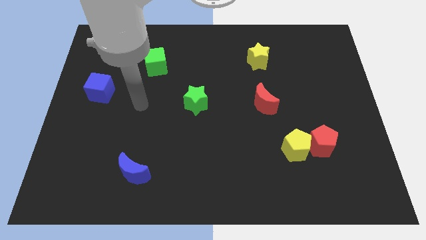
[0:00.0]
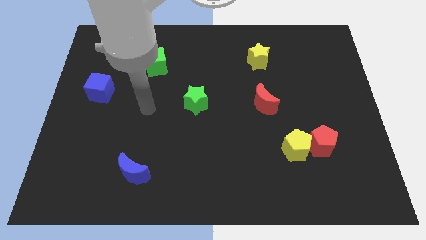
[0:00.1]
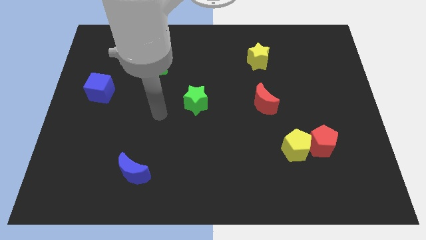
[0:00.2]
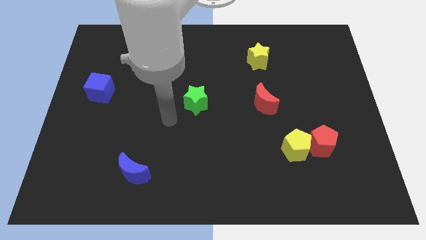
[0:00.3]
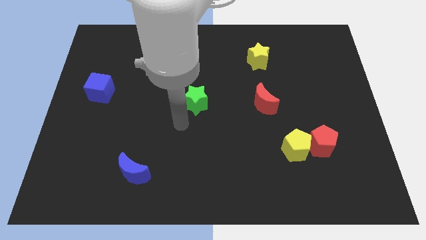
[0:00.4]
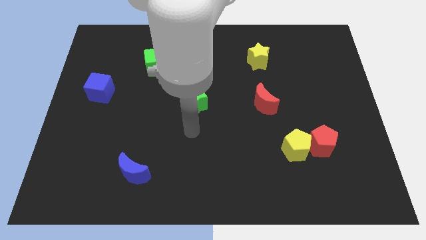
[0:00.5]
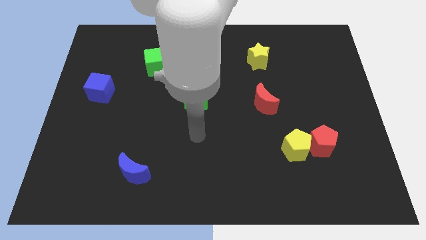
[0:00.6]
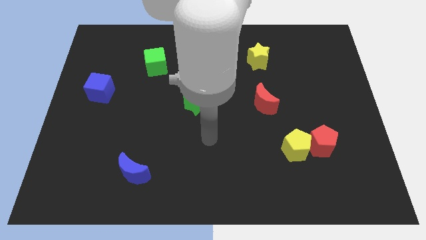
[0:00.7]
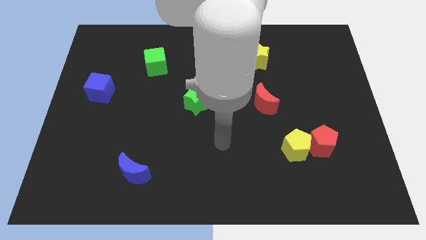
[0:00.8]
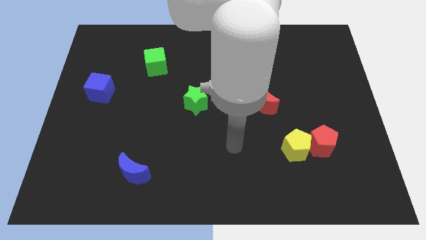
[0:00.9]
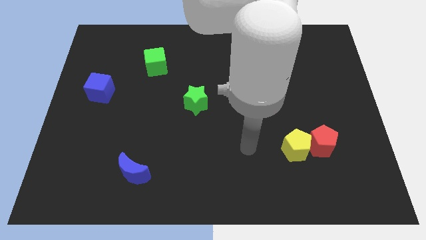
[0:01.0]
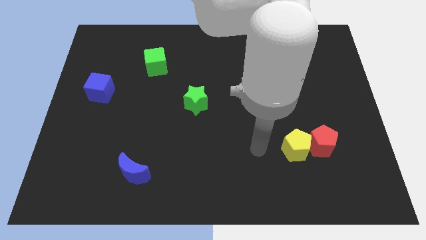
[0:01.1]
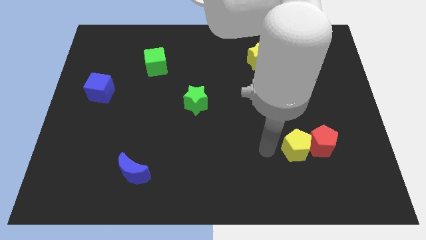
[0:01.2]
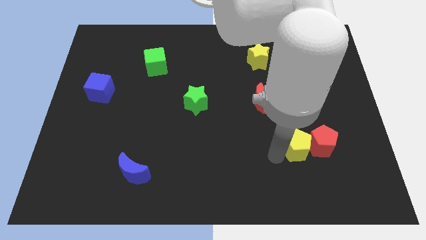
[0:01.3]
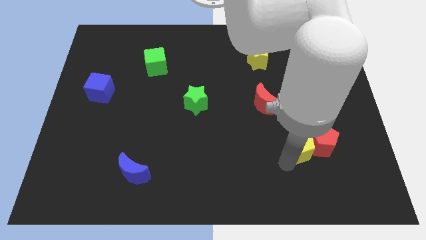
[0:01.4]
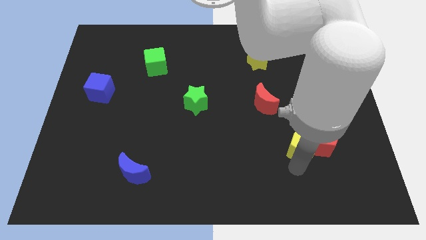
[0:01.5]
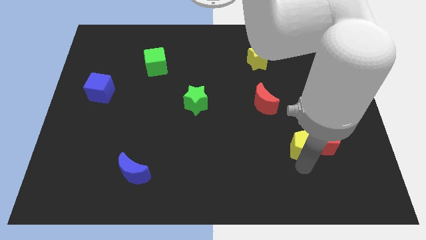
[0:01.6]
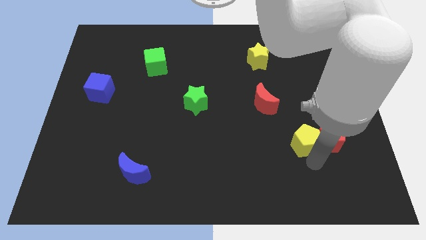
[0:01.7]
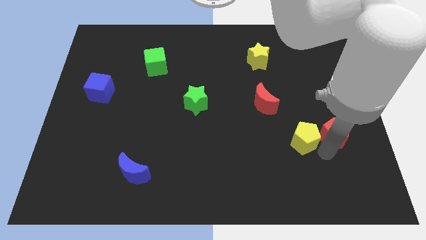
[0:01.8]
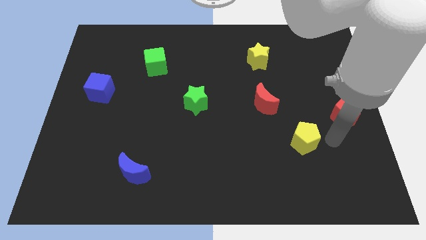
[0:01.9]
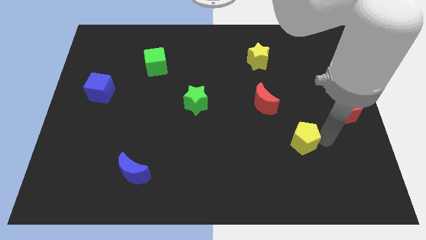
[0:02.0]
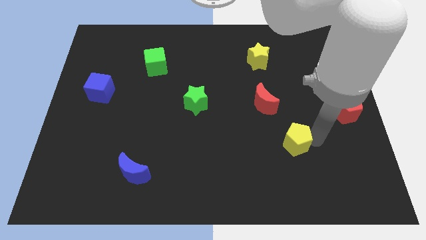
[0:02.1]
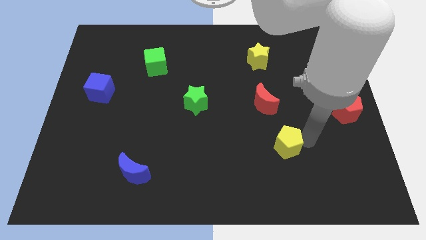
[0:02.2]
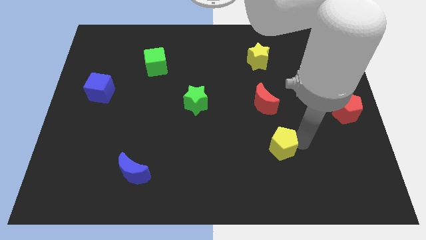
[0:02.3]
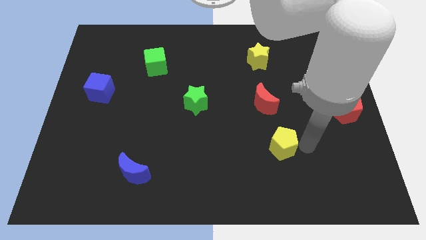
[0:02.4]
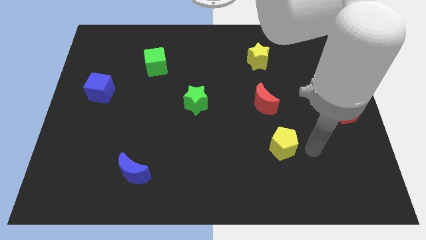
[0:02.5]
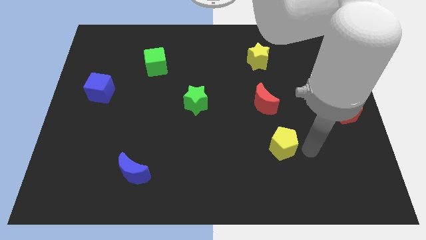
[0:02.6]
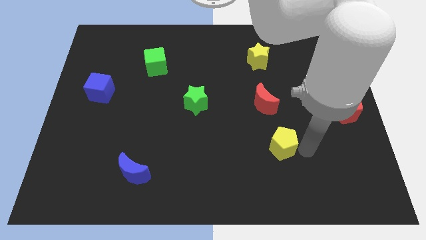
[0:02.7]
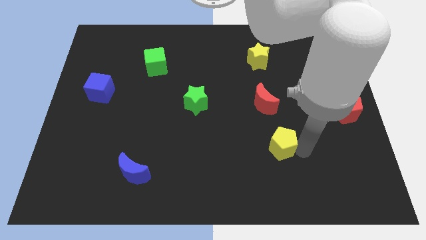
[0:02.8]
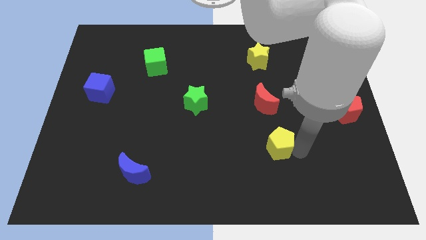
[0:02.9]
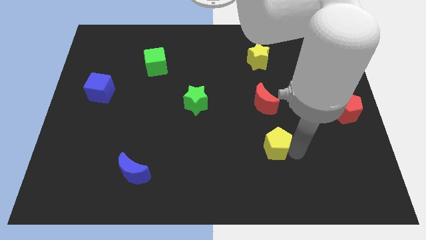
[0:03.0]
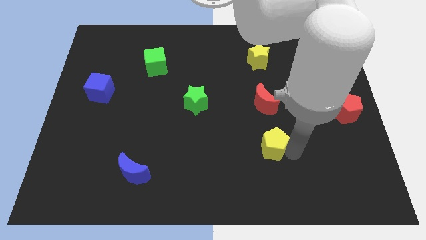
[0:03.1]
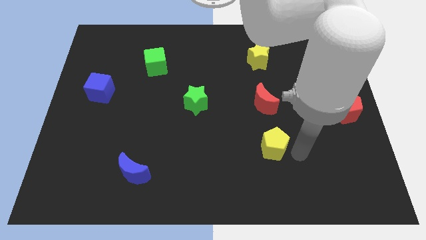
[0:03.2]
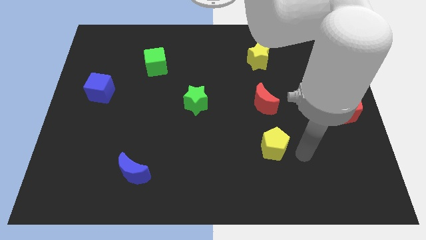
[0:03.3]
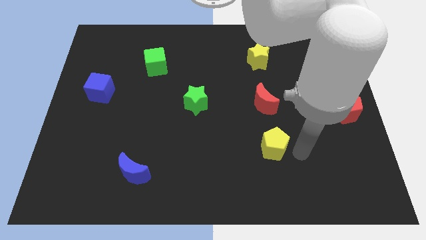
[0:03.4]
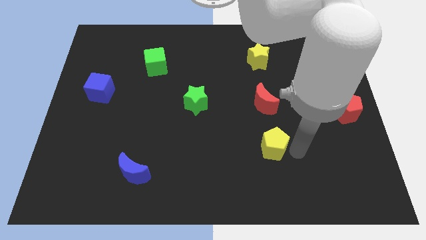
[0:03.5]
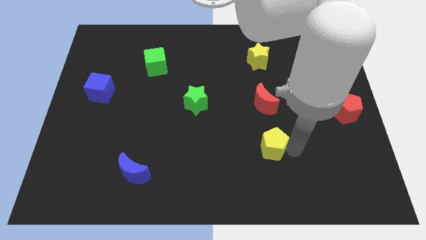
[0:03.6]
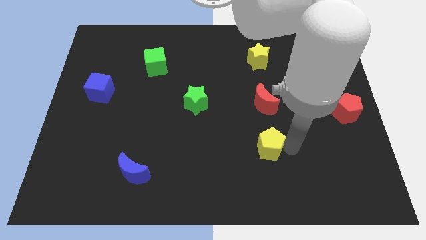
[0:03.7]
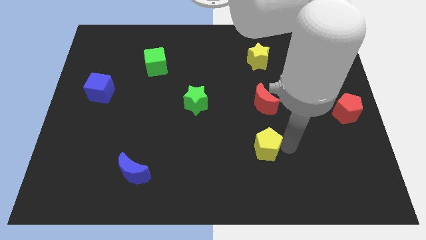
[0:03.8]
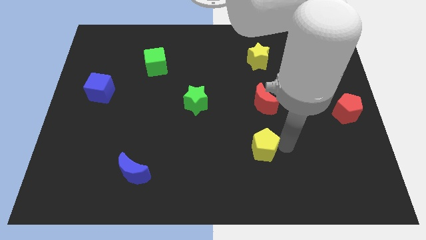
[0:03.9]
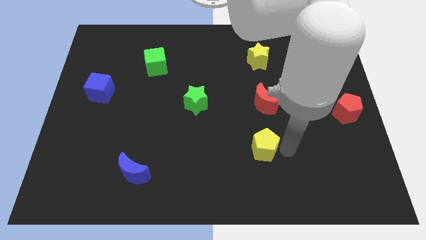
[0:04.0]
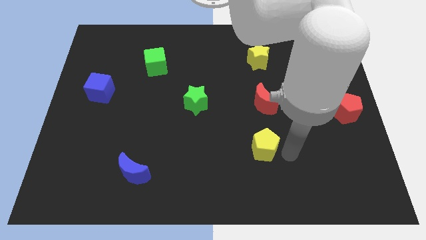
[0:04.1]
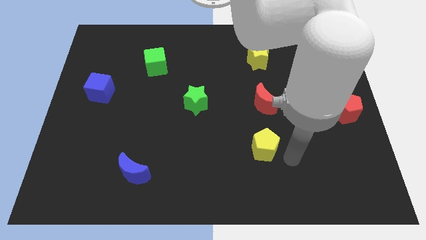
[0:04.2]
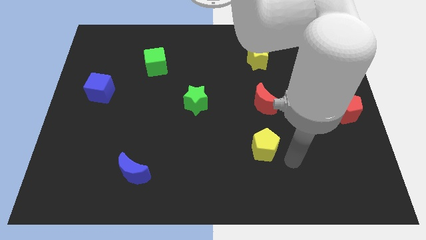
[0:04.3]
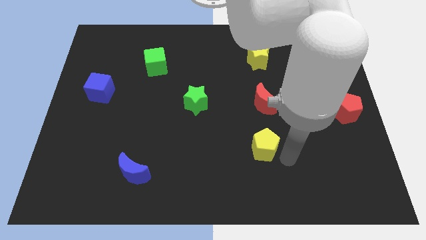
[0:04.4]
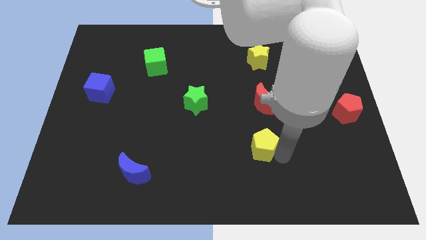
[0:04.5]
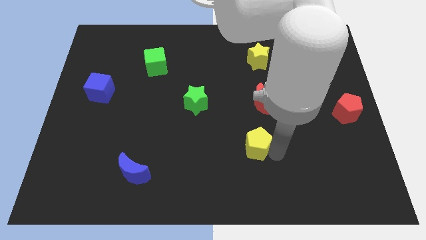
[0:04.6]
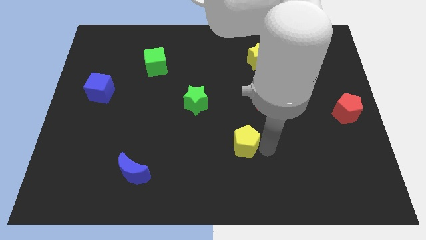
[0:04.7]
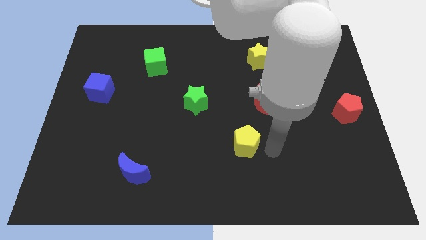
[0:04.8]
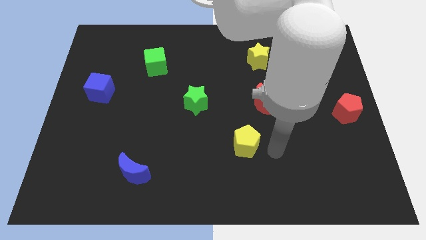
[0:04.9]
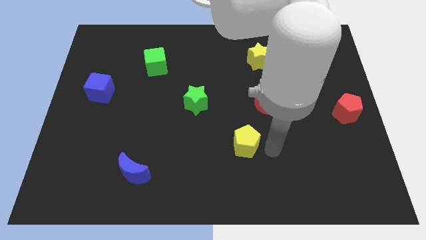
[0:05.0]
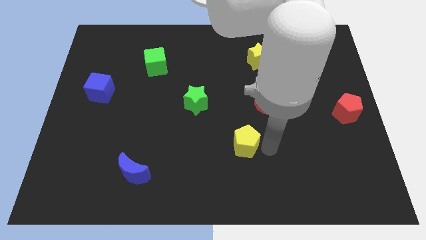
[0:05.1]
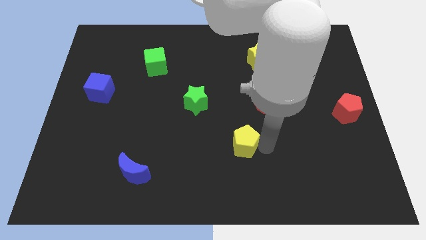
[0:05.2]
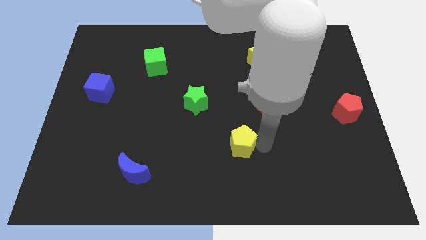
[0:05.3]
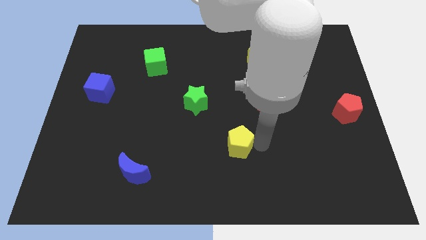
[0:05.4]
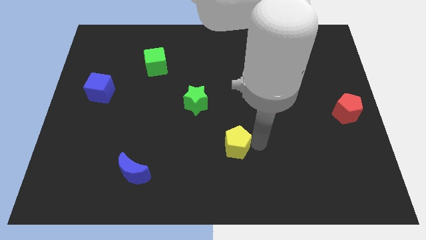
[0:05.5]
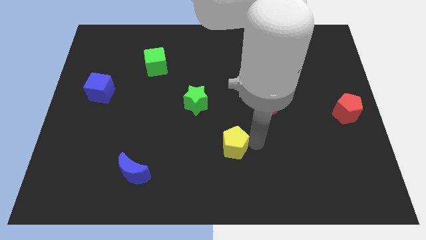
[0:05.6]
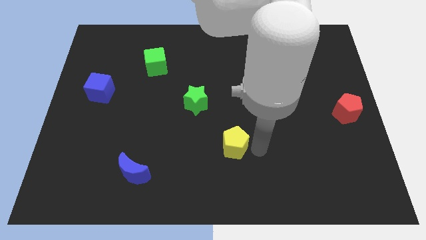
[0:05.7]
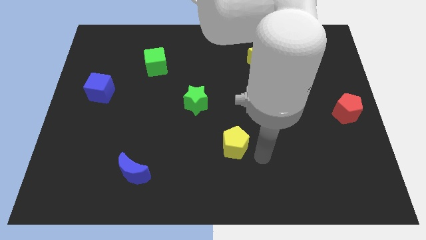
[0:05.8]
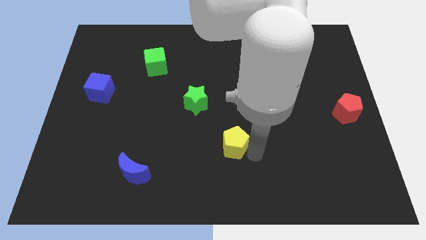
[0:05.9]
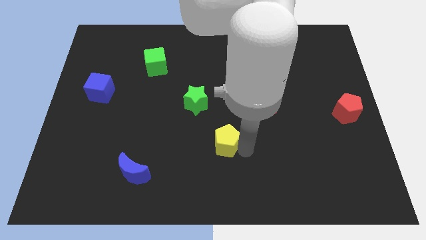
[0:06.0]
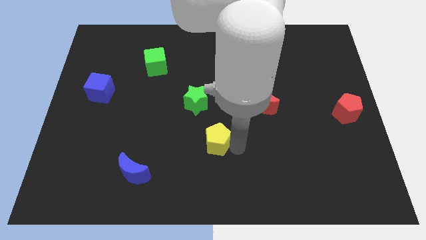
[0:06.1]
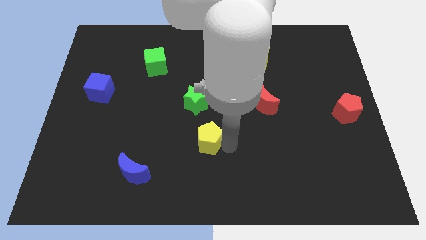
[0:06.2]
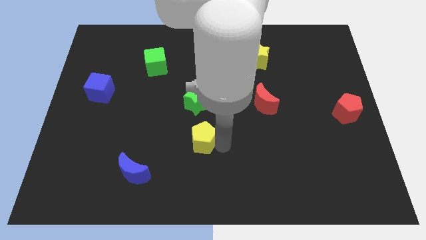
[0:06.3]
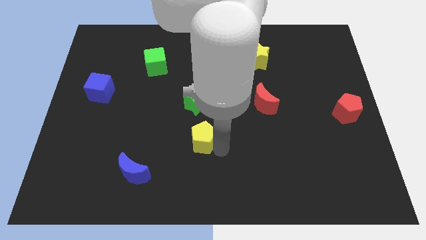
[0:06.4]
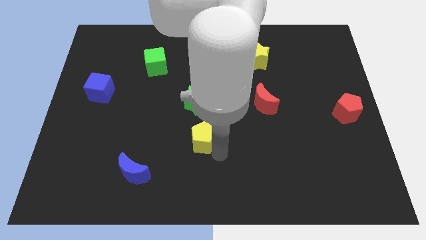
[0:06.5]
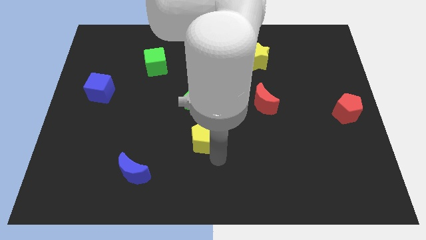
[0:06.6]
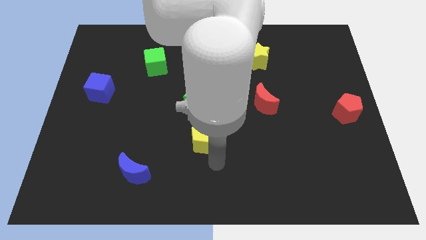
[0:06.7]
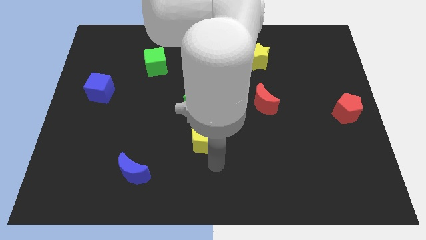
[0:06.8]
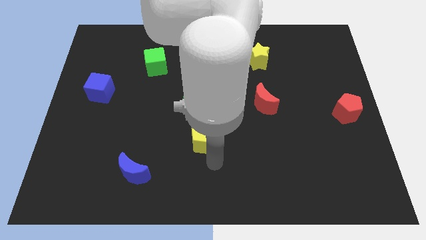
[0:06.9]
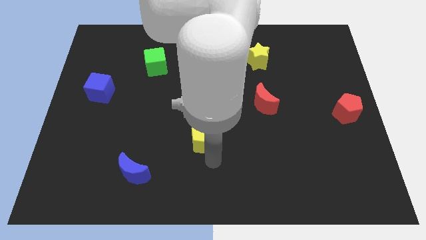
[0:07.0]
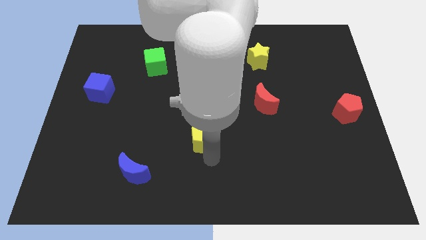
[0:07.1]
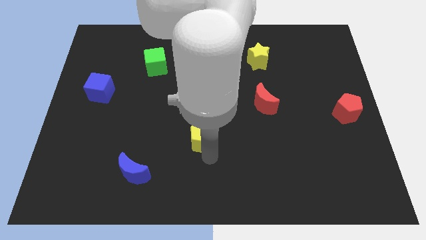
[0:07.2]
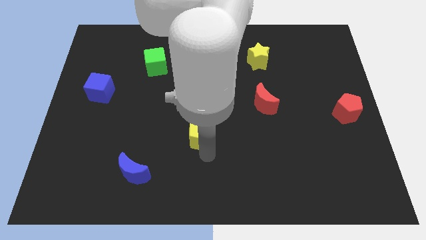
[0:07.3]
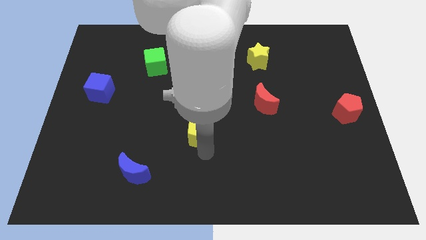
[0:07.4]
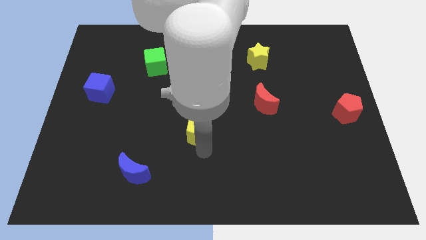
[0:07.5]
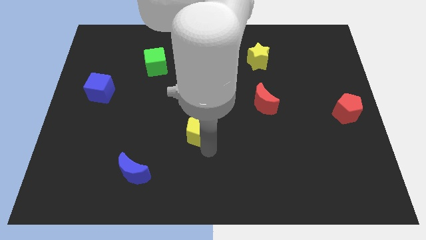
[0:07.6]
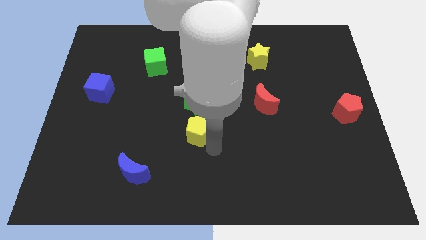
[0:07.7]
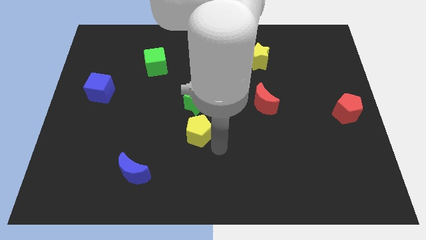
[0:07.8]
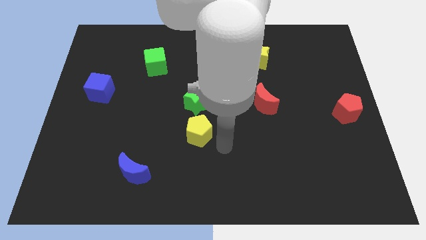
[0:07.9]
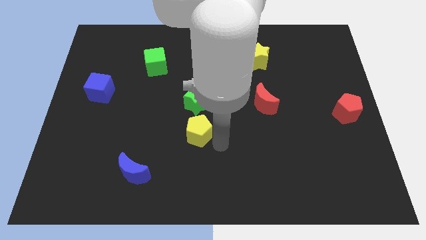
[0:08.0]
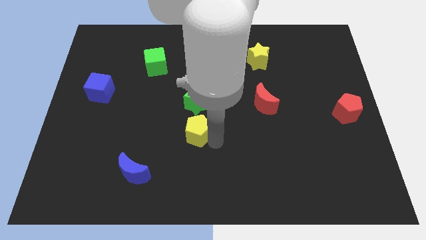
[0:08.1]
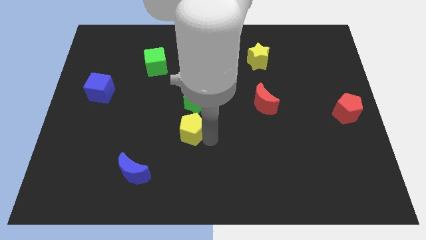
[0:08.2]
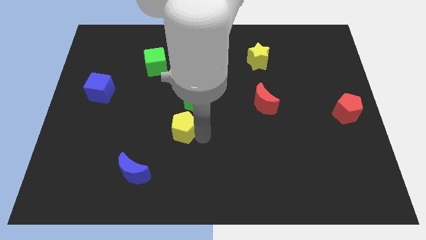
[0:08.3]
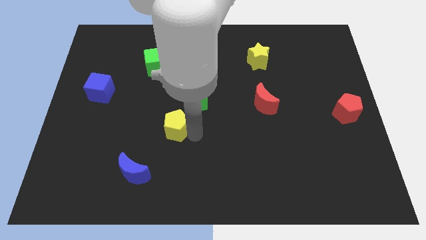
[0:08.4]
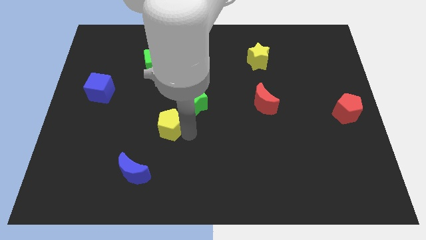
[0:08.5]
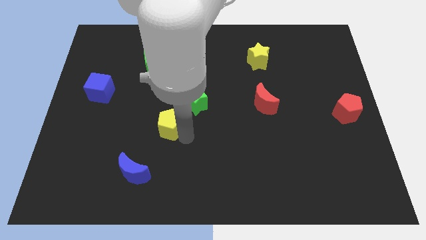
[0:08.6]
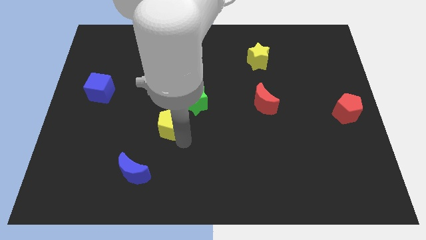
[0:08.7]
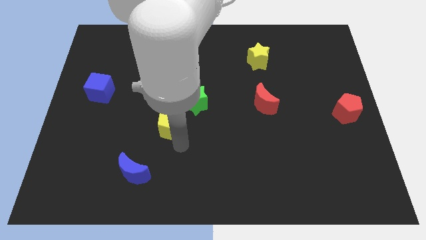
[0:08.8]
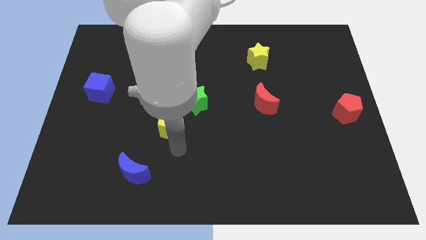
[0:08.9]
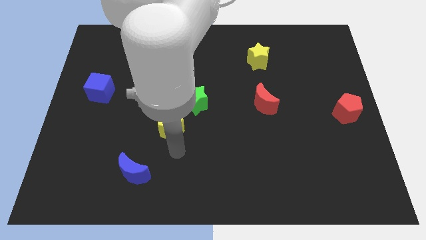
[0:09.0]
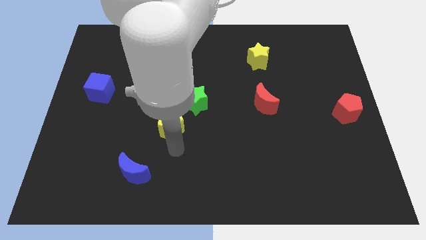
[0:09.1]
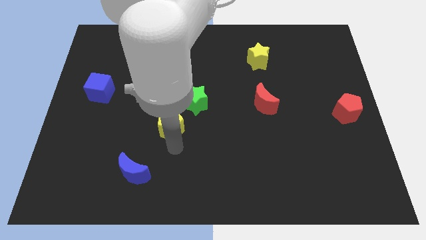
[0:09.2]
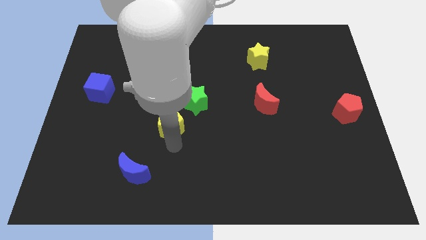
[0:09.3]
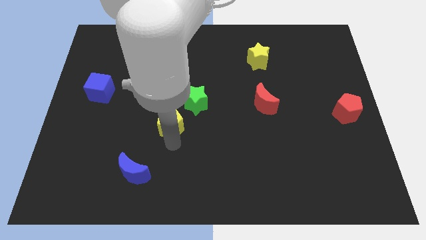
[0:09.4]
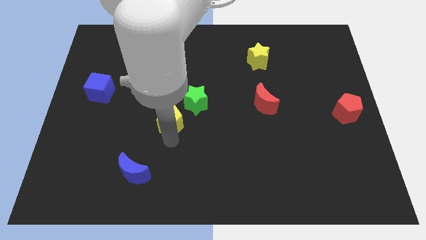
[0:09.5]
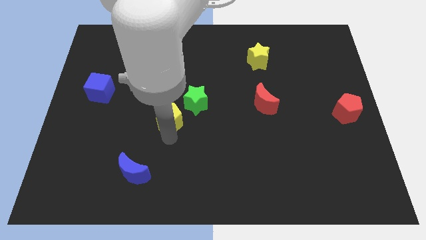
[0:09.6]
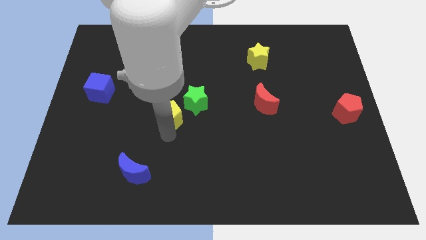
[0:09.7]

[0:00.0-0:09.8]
move the yellow pentagon left of the green star
